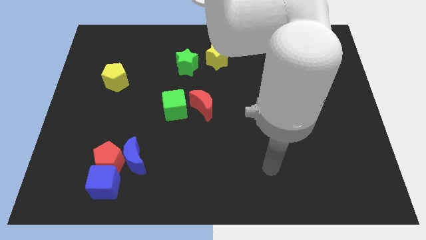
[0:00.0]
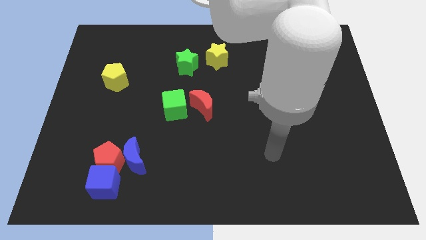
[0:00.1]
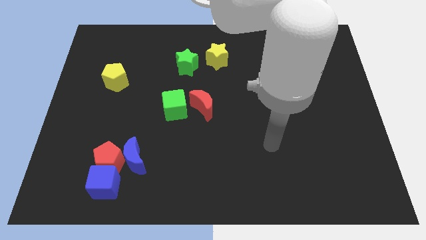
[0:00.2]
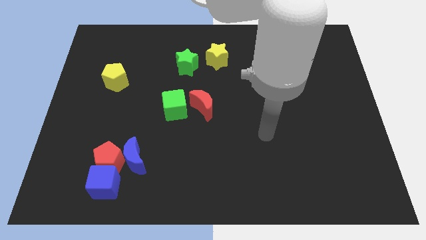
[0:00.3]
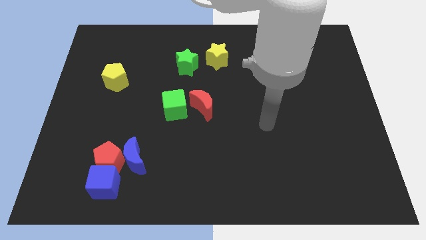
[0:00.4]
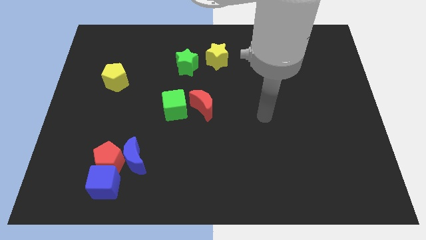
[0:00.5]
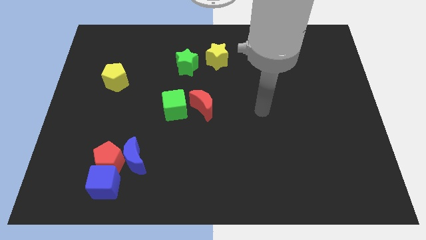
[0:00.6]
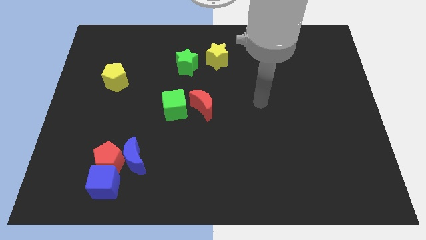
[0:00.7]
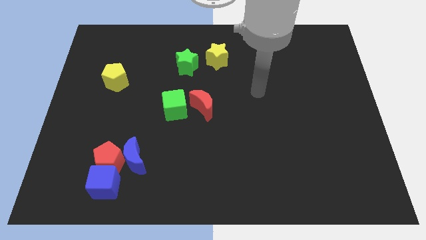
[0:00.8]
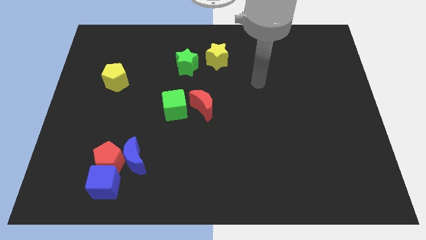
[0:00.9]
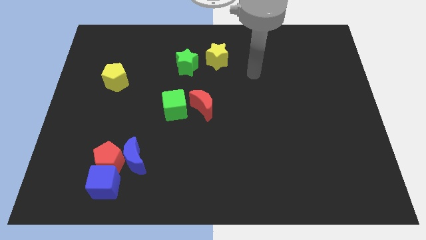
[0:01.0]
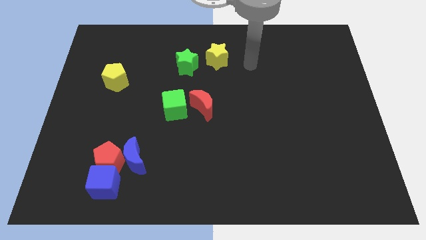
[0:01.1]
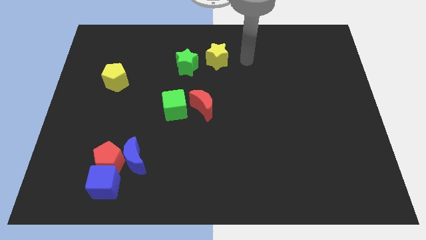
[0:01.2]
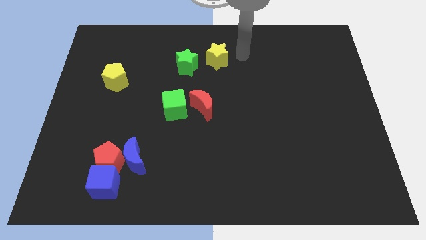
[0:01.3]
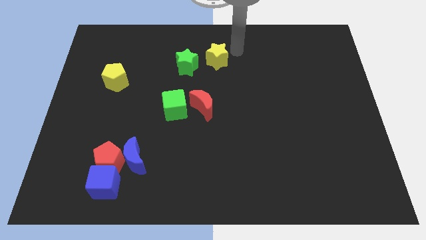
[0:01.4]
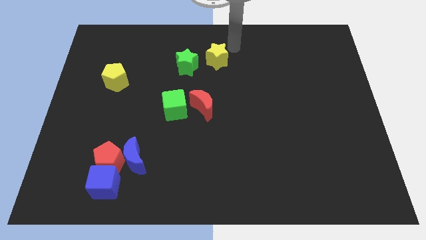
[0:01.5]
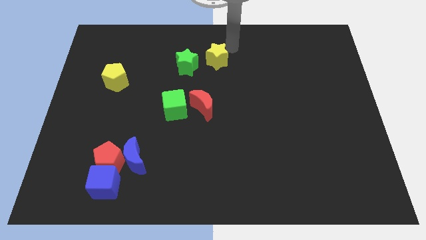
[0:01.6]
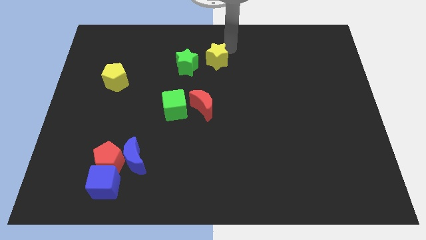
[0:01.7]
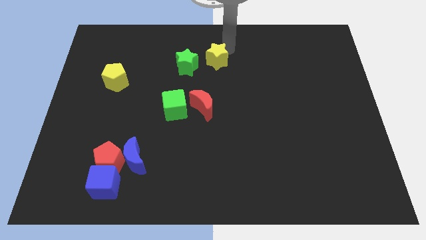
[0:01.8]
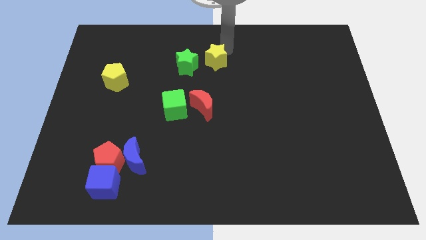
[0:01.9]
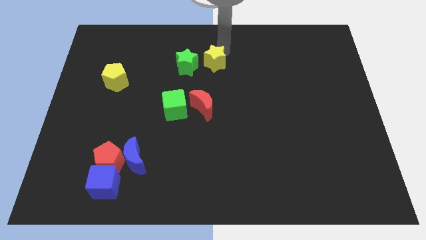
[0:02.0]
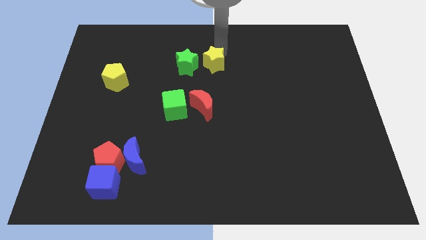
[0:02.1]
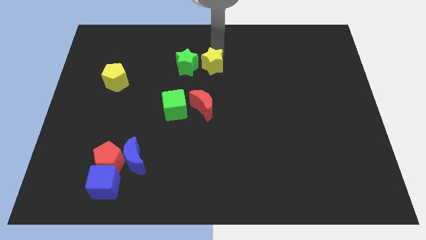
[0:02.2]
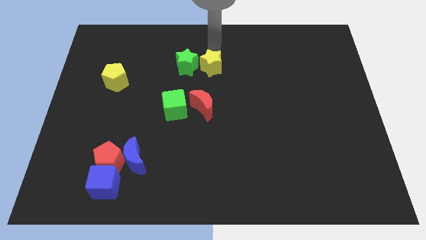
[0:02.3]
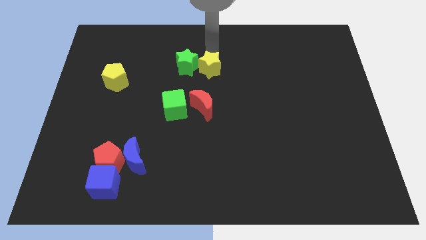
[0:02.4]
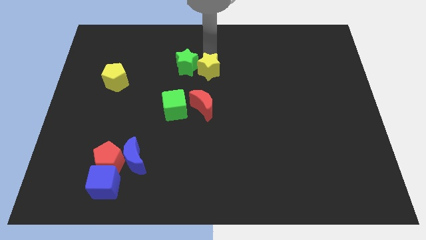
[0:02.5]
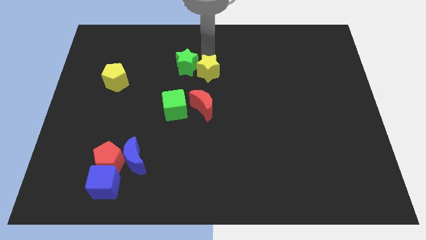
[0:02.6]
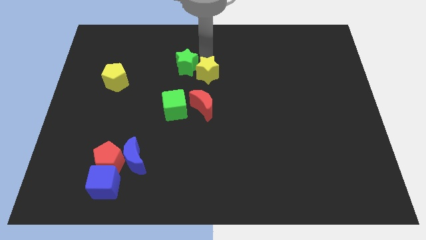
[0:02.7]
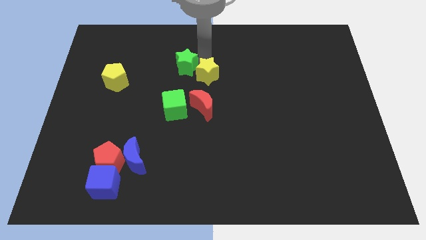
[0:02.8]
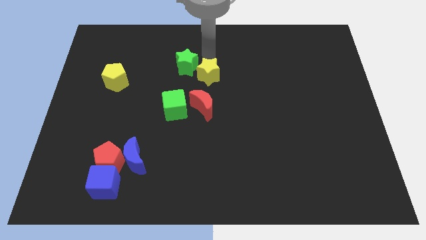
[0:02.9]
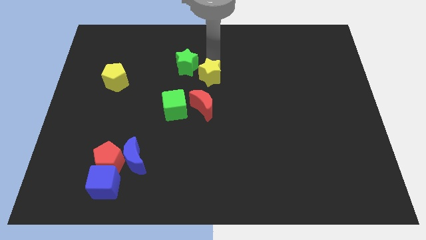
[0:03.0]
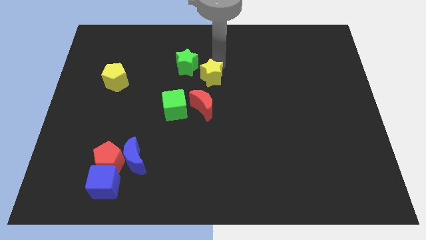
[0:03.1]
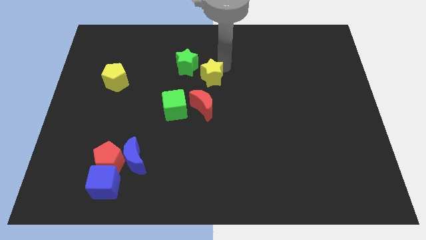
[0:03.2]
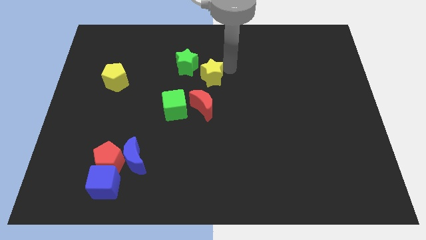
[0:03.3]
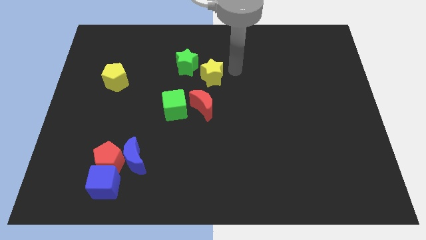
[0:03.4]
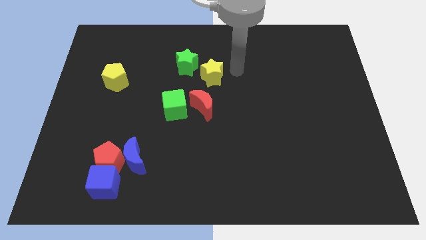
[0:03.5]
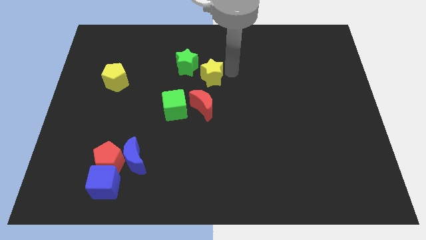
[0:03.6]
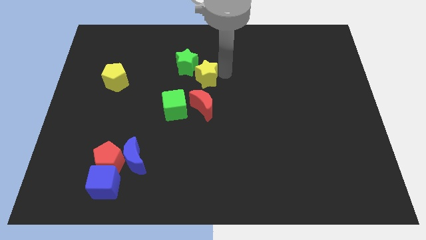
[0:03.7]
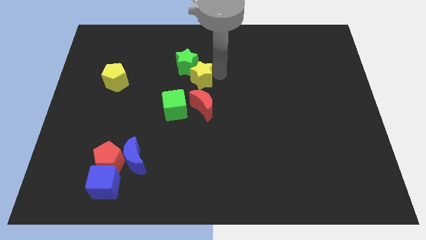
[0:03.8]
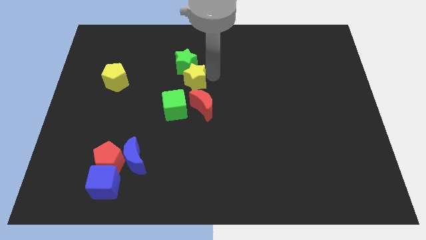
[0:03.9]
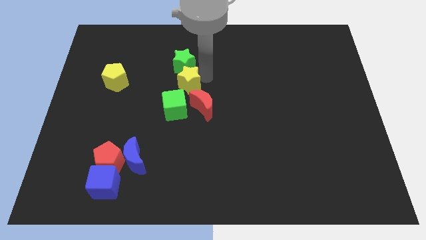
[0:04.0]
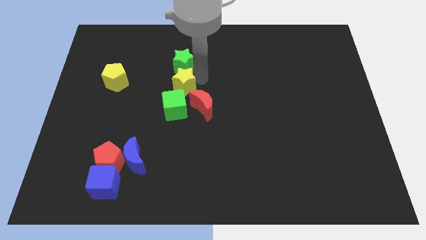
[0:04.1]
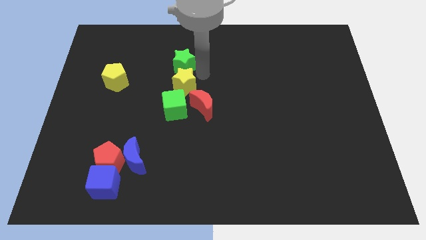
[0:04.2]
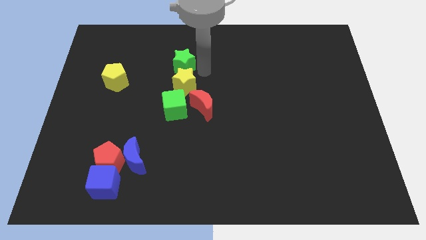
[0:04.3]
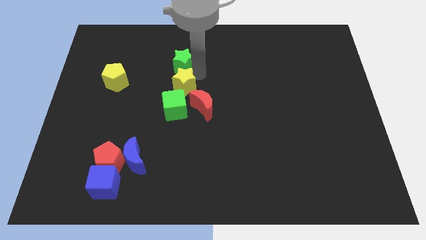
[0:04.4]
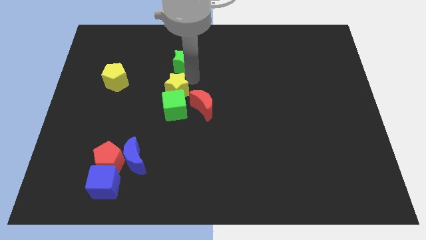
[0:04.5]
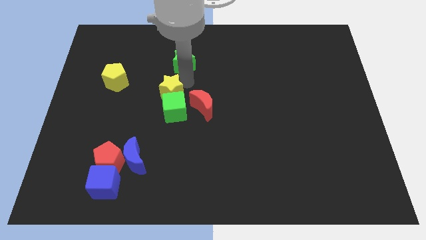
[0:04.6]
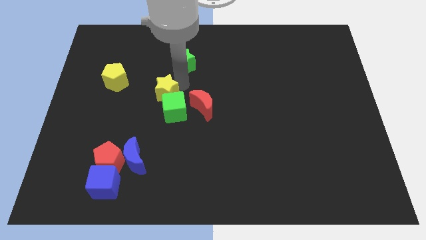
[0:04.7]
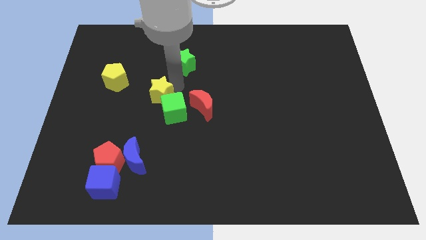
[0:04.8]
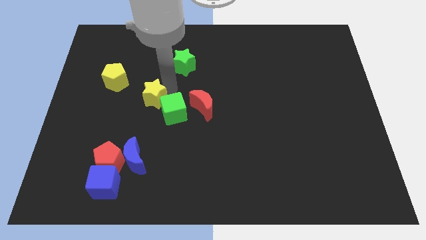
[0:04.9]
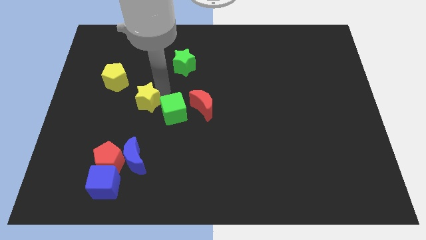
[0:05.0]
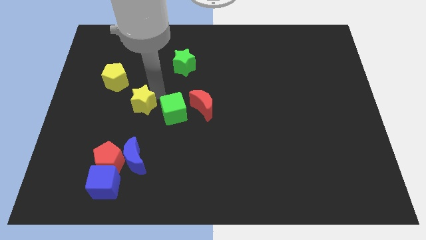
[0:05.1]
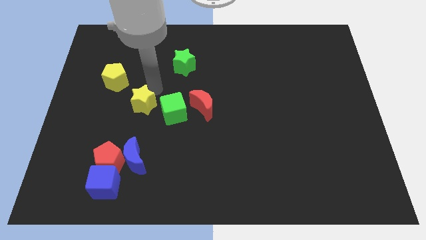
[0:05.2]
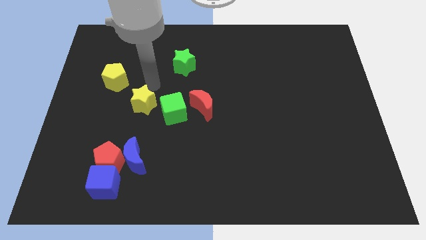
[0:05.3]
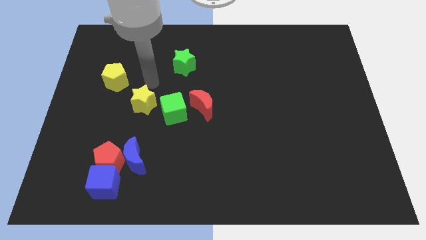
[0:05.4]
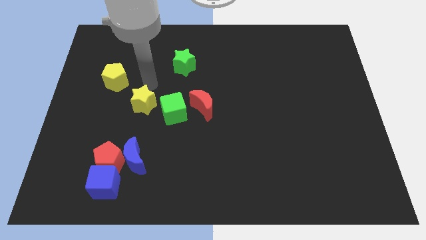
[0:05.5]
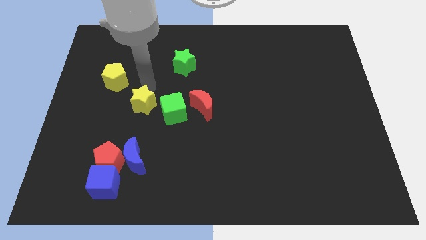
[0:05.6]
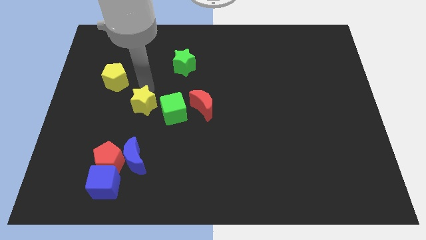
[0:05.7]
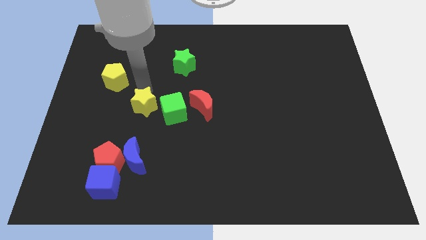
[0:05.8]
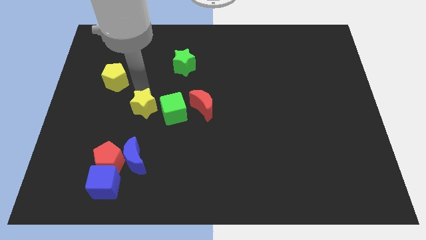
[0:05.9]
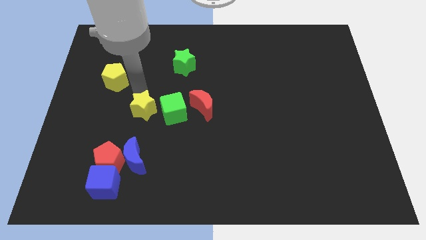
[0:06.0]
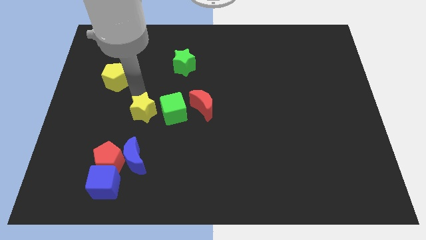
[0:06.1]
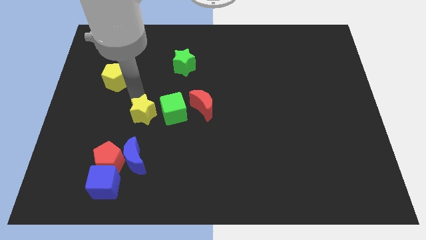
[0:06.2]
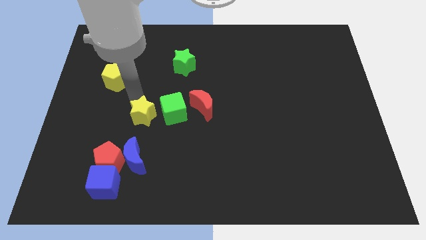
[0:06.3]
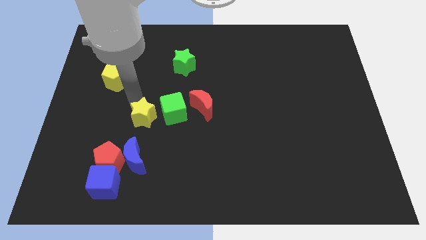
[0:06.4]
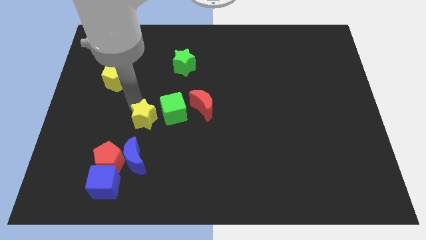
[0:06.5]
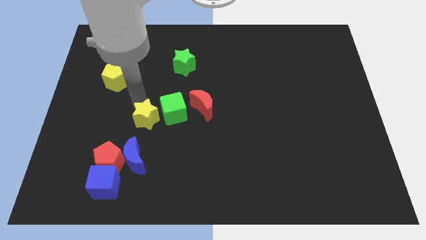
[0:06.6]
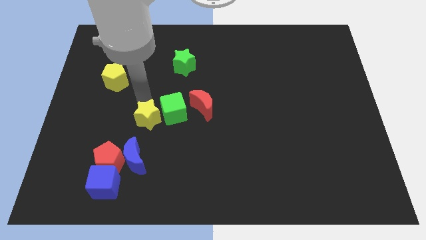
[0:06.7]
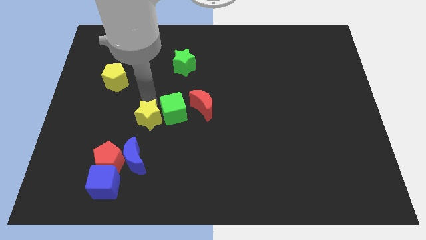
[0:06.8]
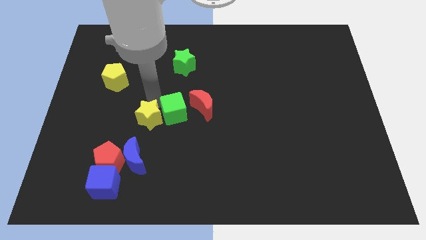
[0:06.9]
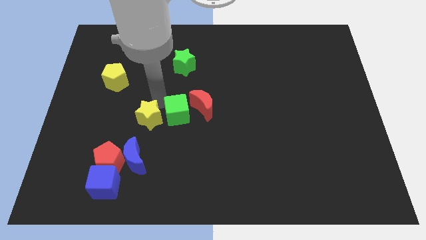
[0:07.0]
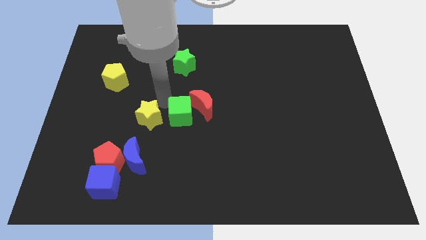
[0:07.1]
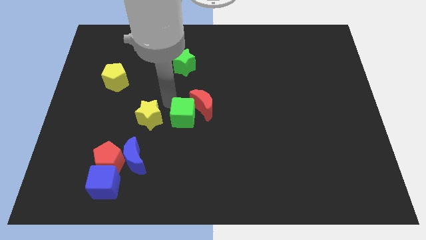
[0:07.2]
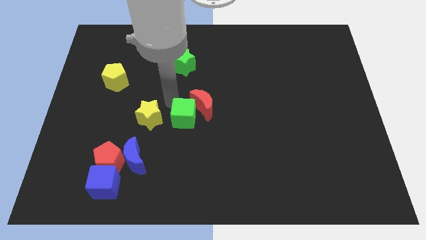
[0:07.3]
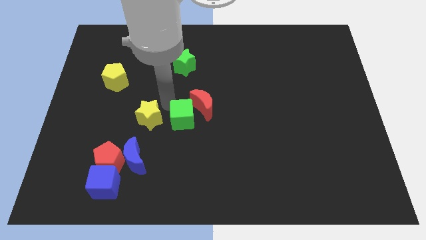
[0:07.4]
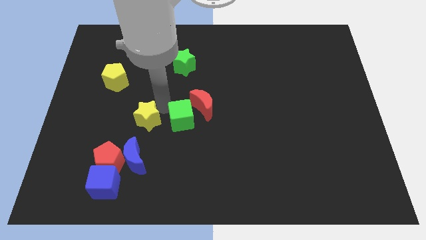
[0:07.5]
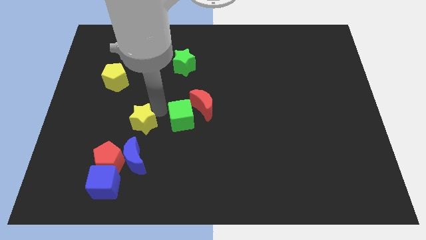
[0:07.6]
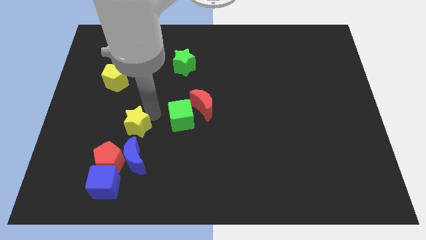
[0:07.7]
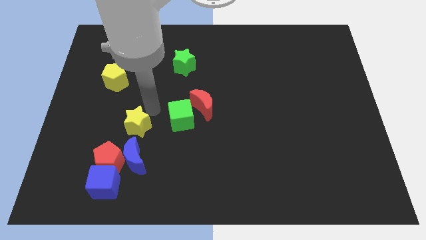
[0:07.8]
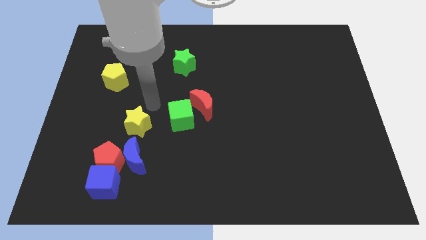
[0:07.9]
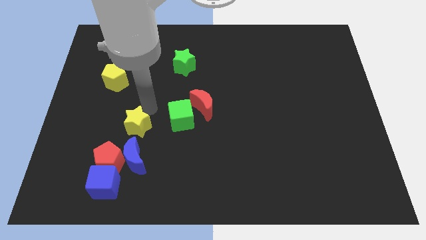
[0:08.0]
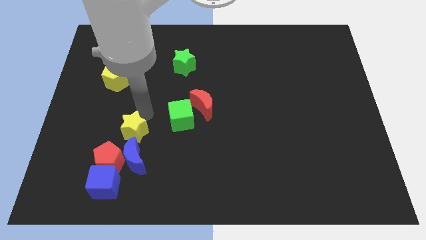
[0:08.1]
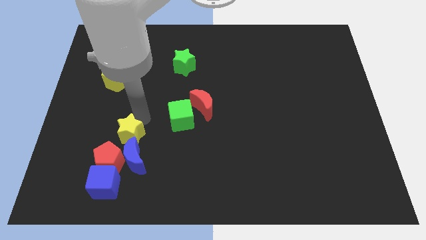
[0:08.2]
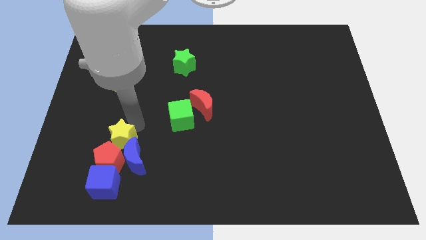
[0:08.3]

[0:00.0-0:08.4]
move the yellow star to the red pentagon

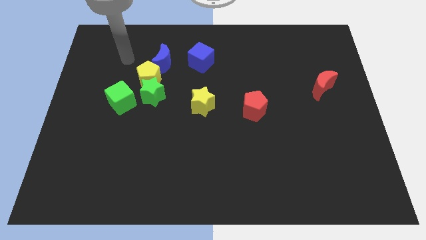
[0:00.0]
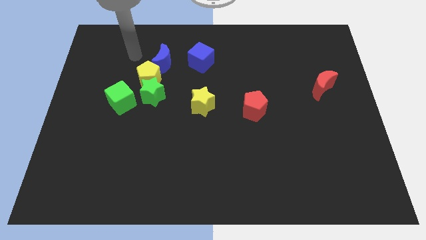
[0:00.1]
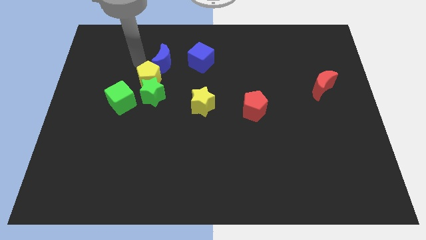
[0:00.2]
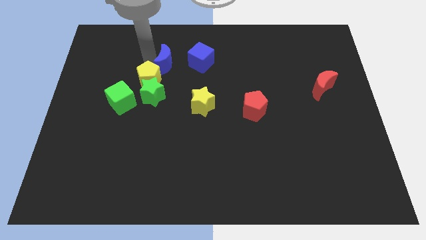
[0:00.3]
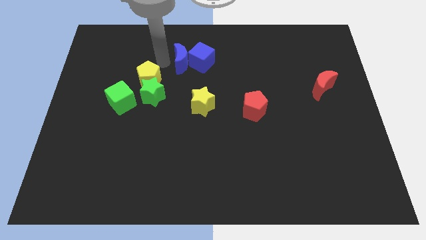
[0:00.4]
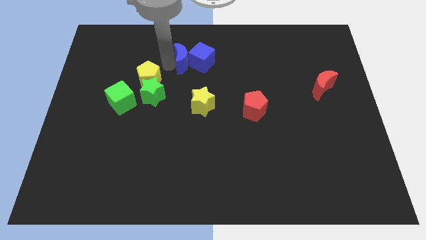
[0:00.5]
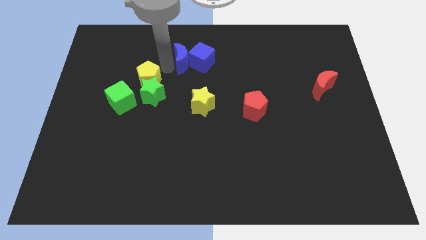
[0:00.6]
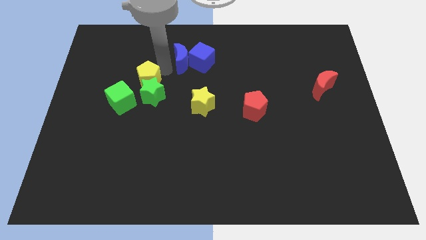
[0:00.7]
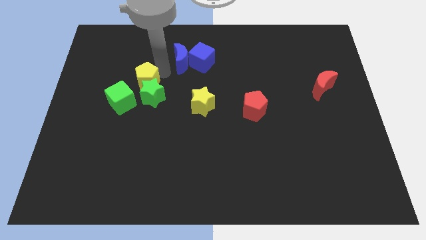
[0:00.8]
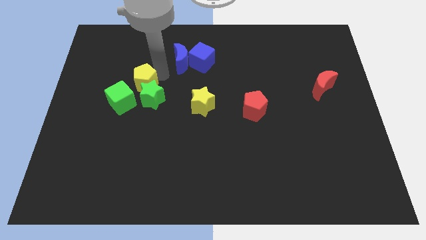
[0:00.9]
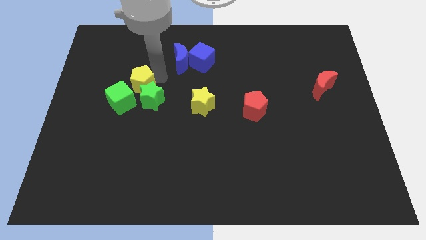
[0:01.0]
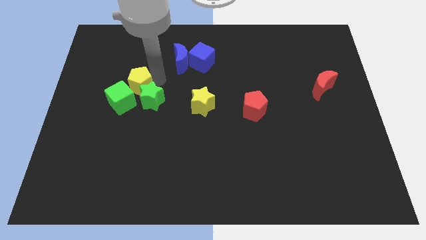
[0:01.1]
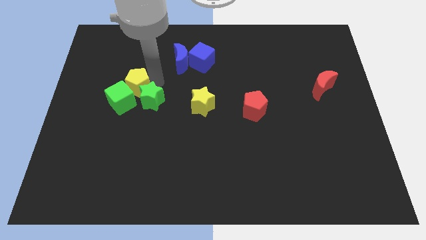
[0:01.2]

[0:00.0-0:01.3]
put the yellow pentagon towards the green cube
